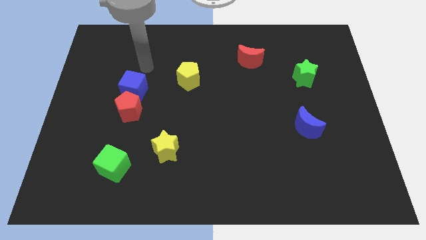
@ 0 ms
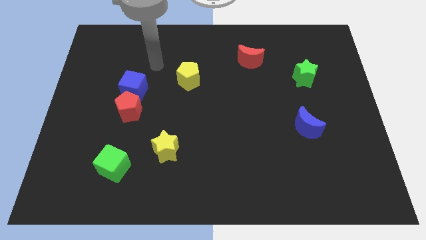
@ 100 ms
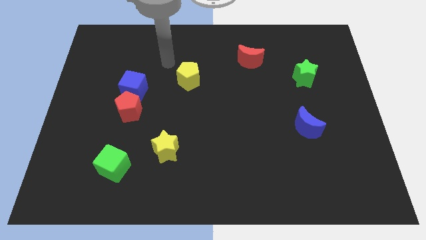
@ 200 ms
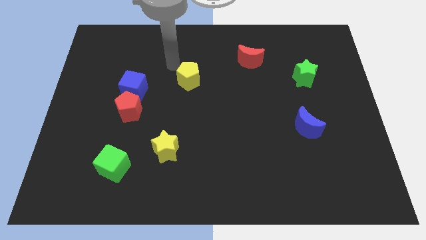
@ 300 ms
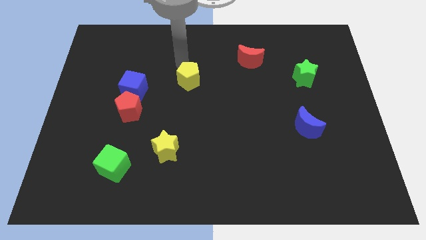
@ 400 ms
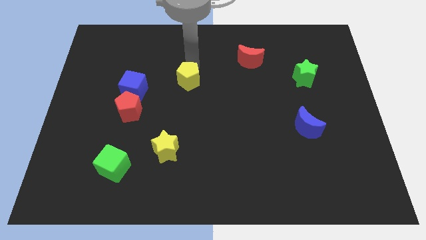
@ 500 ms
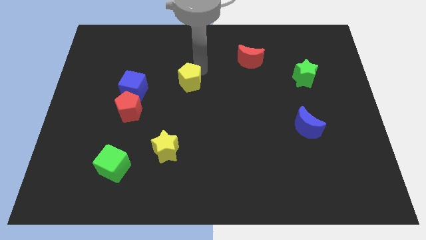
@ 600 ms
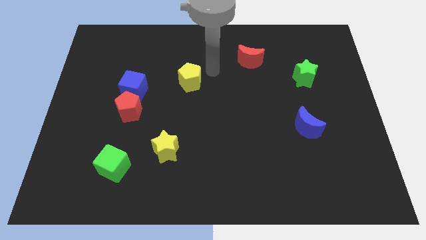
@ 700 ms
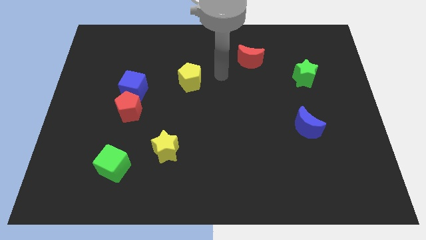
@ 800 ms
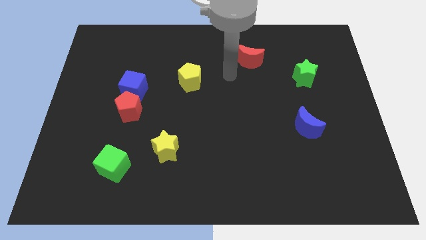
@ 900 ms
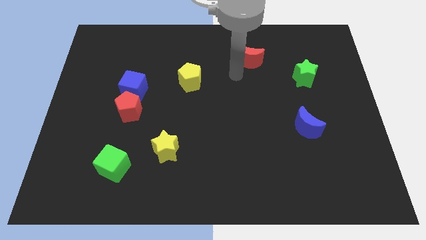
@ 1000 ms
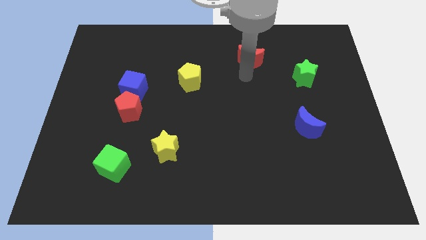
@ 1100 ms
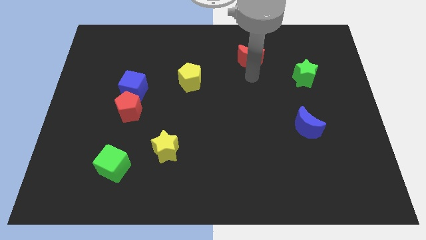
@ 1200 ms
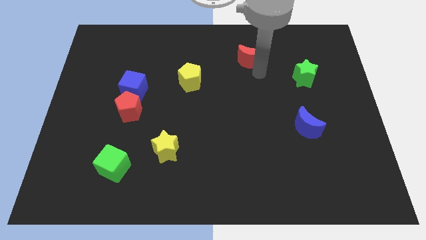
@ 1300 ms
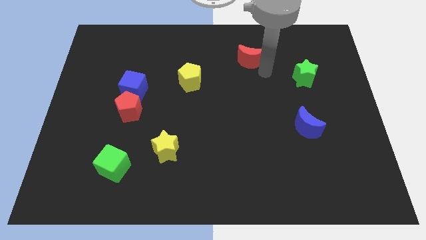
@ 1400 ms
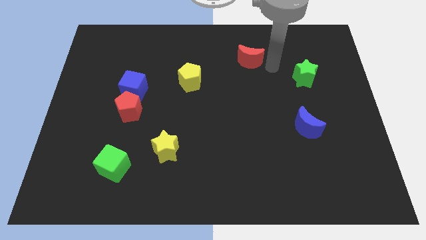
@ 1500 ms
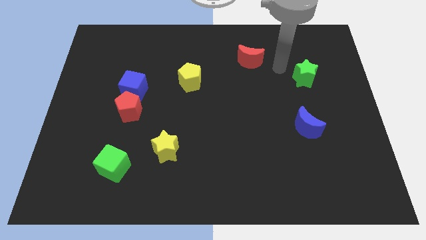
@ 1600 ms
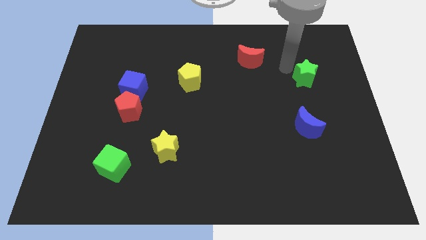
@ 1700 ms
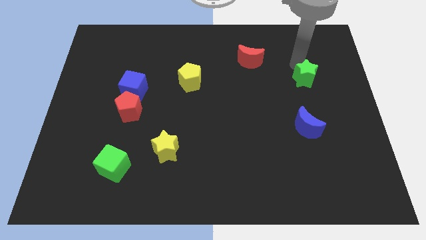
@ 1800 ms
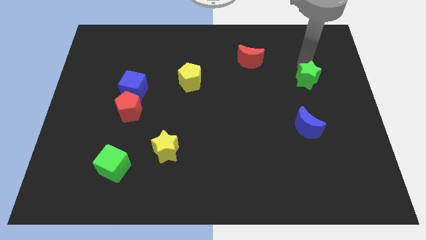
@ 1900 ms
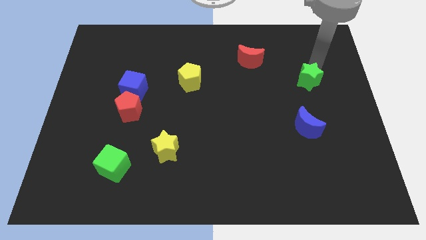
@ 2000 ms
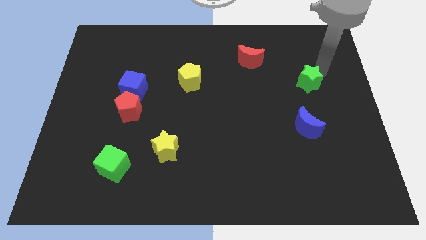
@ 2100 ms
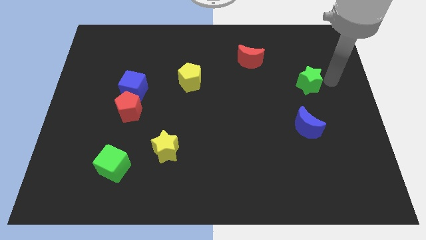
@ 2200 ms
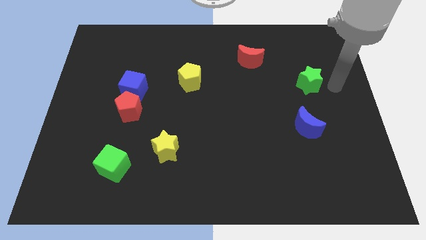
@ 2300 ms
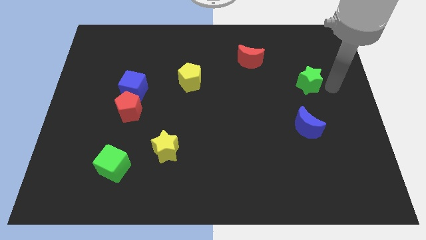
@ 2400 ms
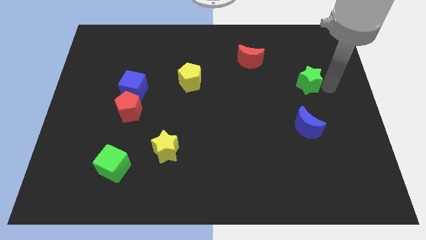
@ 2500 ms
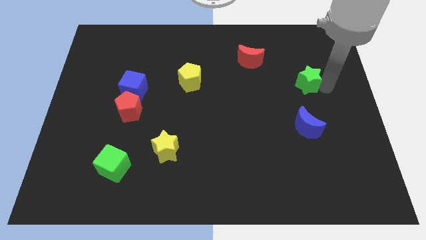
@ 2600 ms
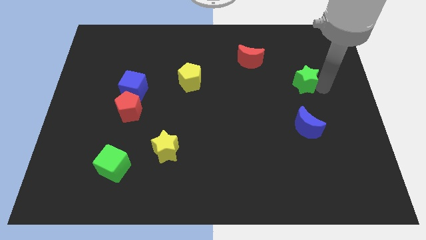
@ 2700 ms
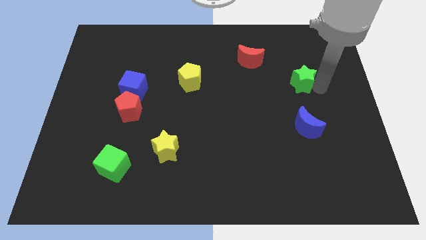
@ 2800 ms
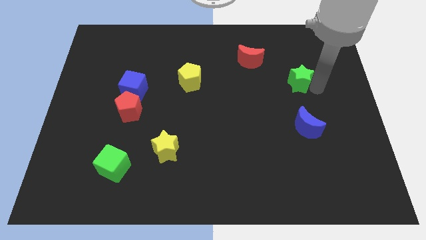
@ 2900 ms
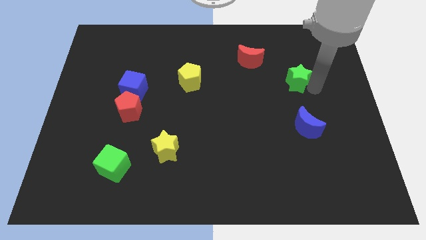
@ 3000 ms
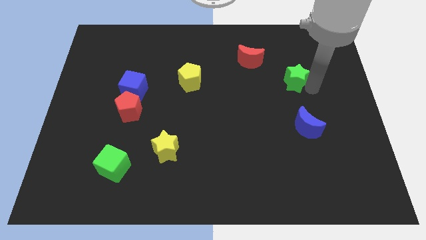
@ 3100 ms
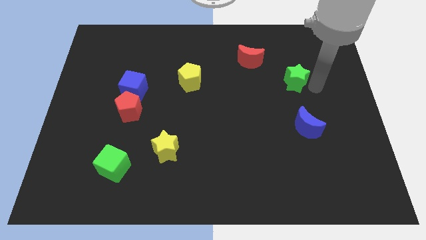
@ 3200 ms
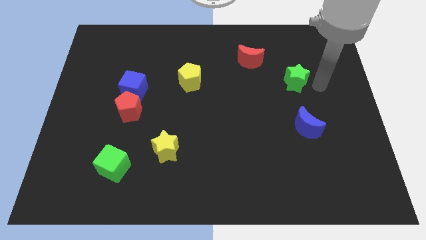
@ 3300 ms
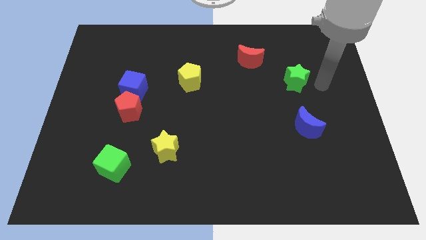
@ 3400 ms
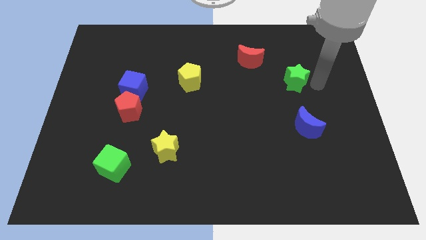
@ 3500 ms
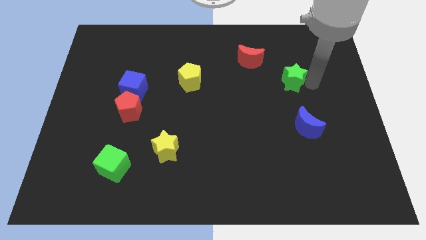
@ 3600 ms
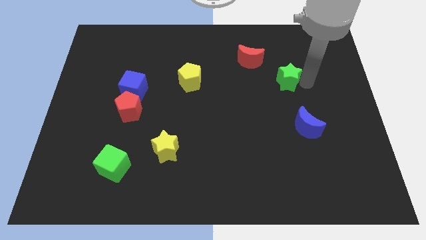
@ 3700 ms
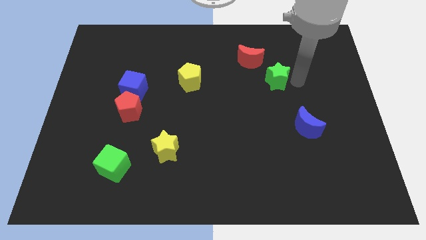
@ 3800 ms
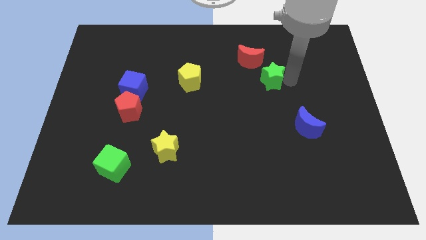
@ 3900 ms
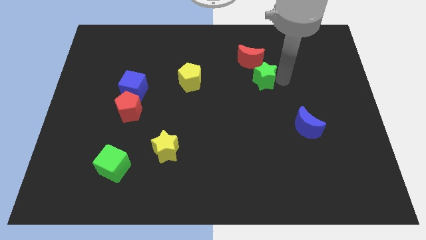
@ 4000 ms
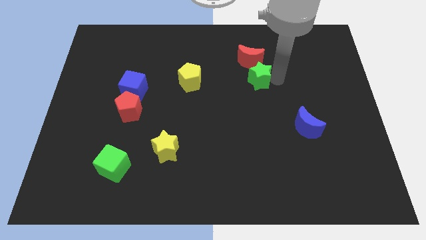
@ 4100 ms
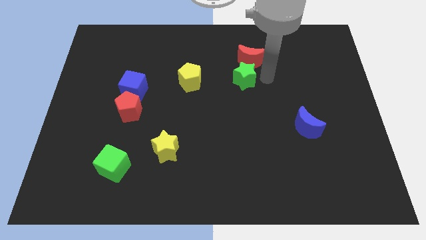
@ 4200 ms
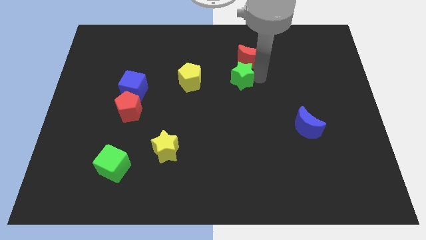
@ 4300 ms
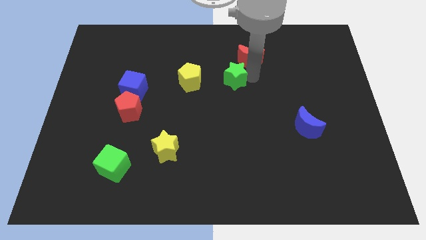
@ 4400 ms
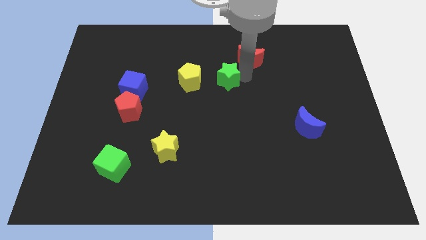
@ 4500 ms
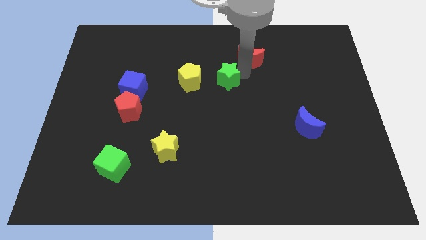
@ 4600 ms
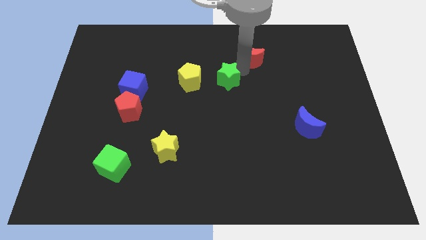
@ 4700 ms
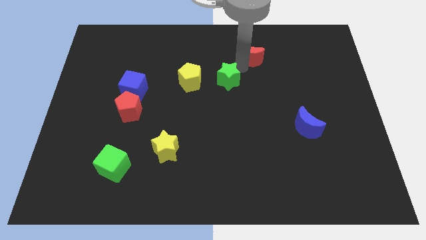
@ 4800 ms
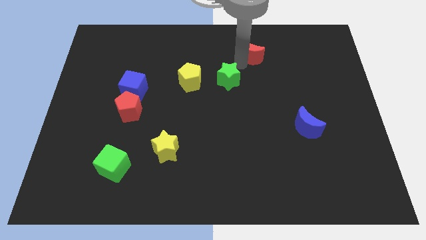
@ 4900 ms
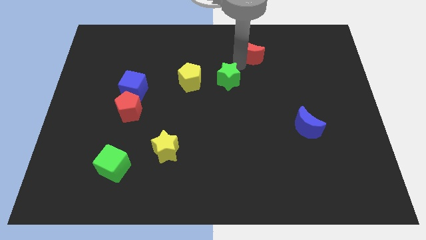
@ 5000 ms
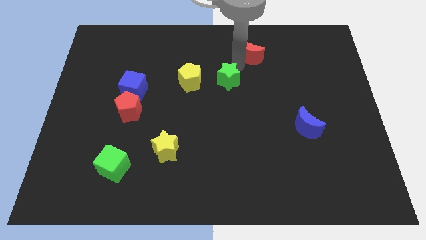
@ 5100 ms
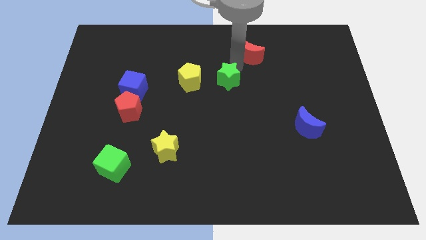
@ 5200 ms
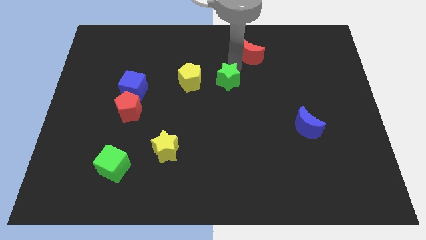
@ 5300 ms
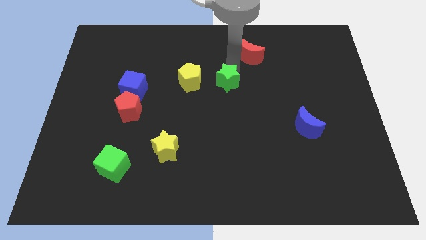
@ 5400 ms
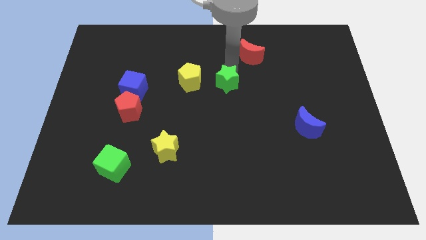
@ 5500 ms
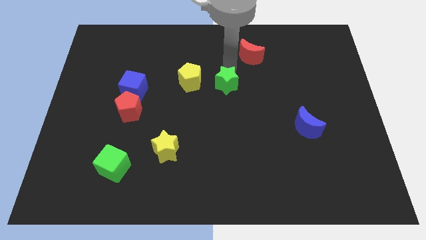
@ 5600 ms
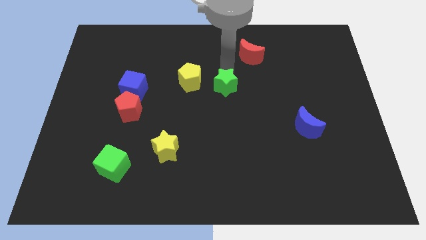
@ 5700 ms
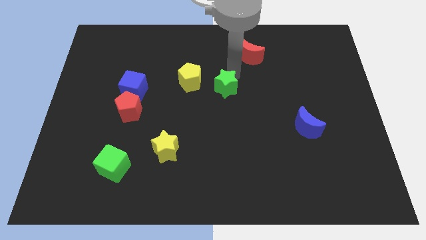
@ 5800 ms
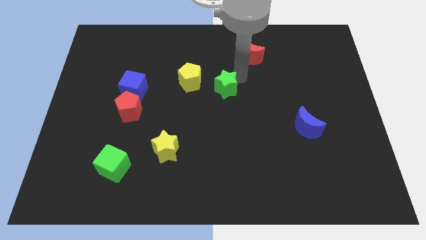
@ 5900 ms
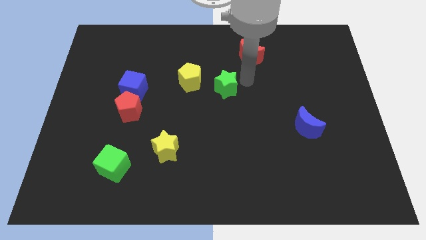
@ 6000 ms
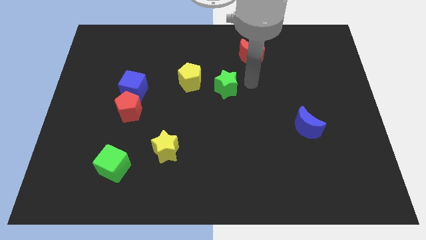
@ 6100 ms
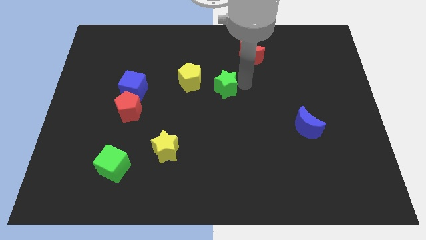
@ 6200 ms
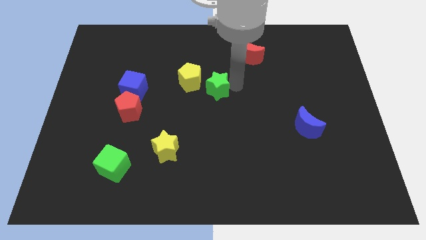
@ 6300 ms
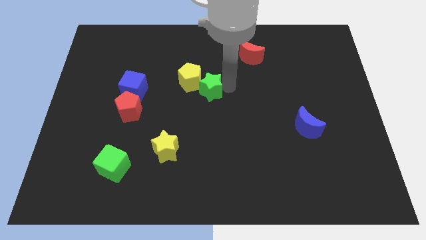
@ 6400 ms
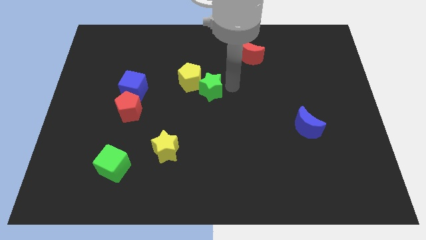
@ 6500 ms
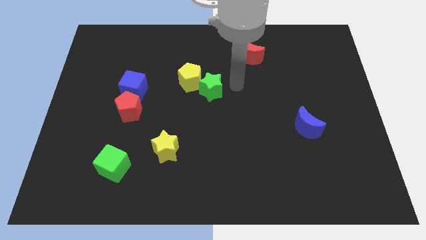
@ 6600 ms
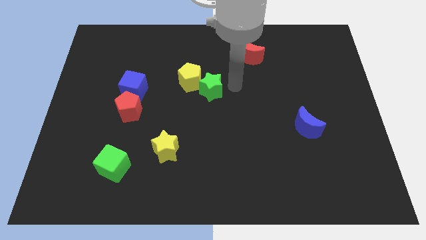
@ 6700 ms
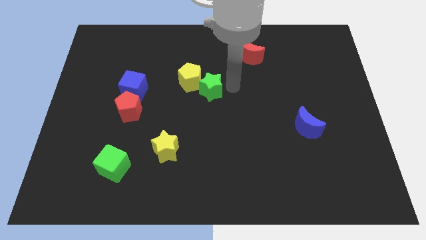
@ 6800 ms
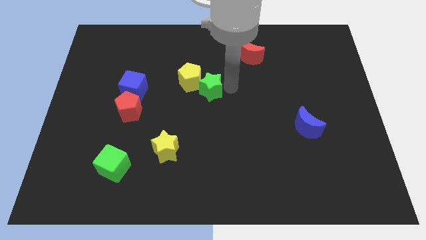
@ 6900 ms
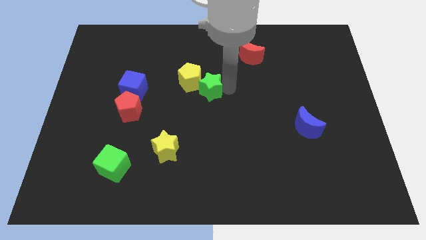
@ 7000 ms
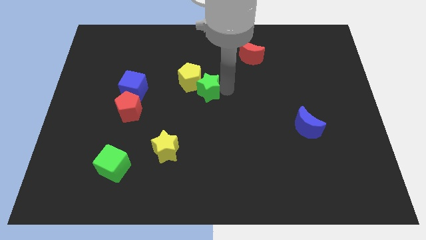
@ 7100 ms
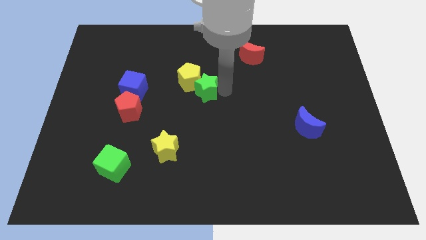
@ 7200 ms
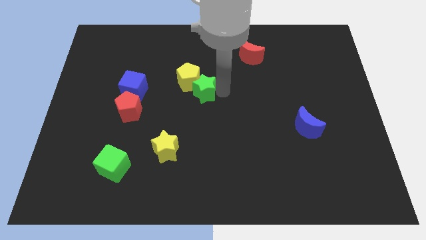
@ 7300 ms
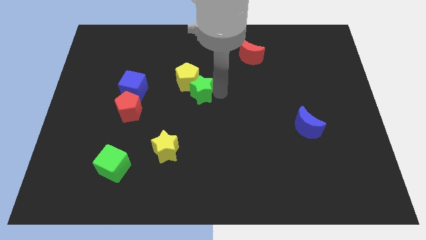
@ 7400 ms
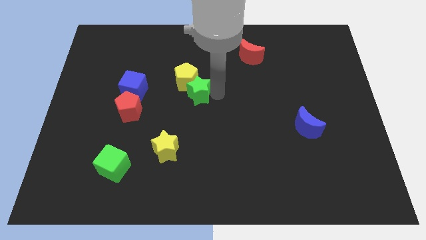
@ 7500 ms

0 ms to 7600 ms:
push the green star just right of the blue cube
